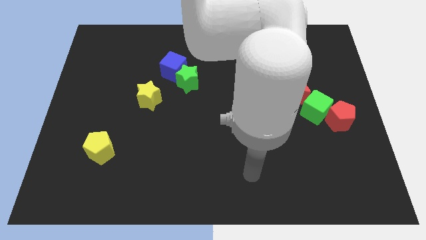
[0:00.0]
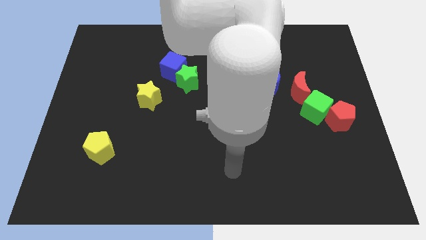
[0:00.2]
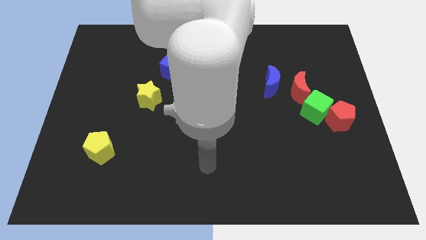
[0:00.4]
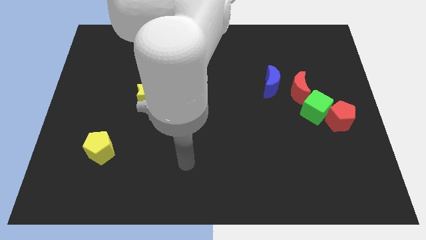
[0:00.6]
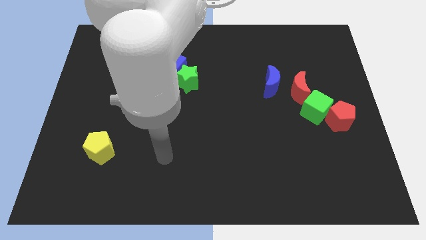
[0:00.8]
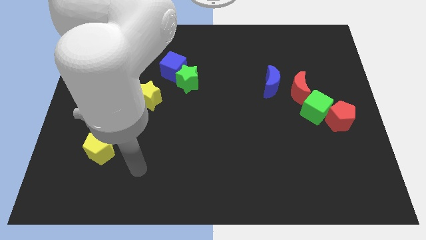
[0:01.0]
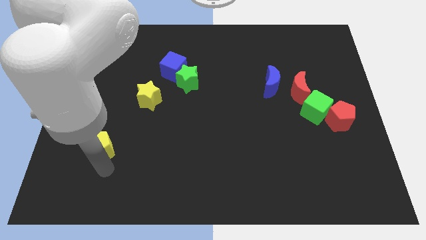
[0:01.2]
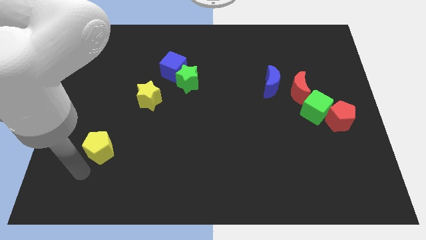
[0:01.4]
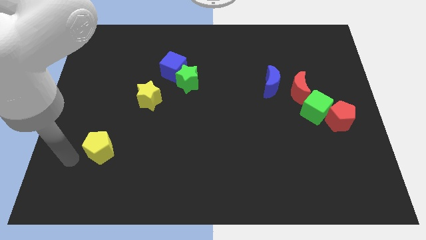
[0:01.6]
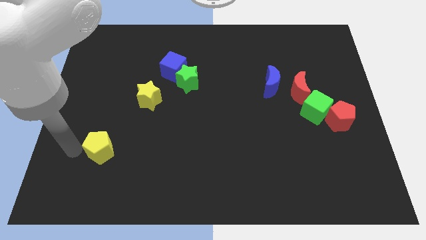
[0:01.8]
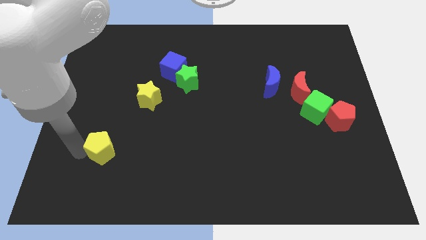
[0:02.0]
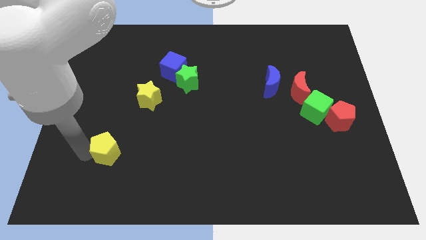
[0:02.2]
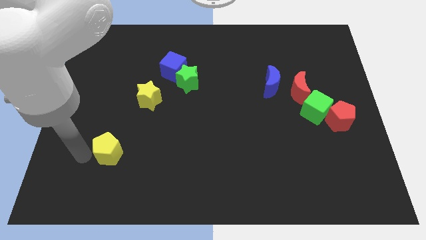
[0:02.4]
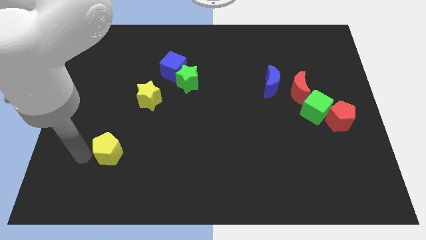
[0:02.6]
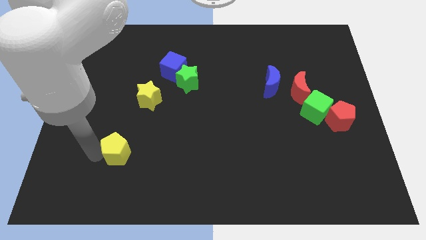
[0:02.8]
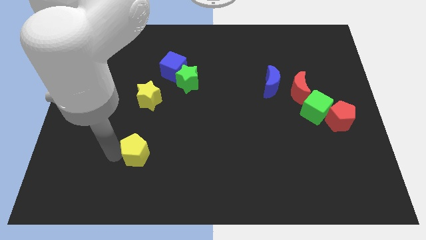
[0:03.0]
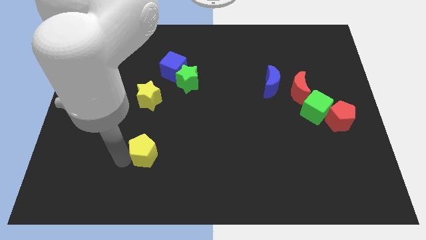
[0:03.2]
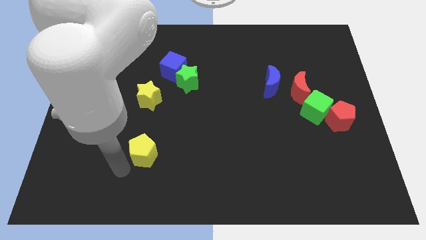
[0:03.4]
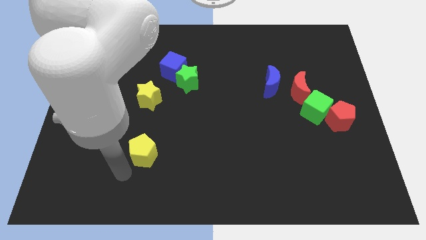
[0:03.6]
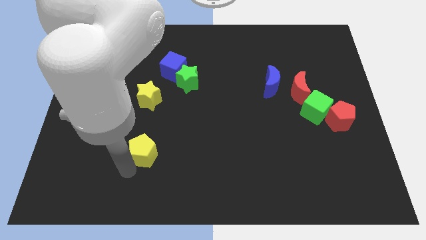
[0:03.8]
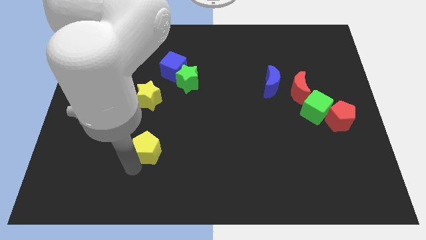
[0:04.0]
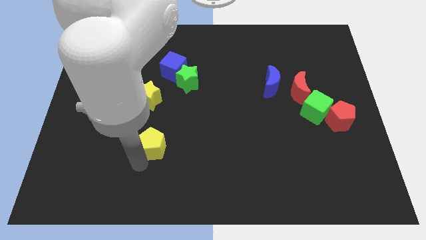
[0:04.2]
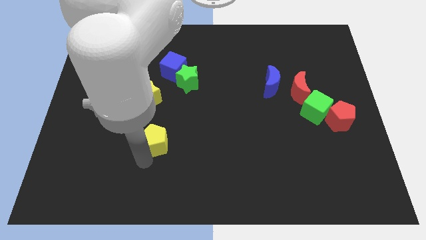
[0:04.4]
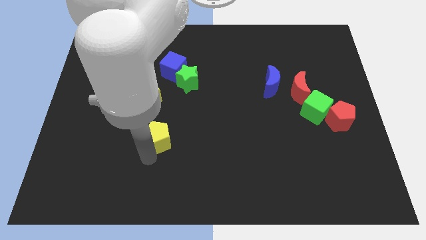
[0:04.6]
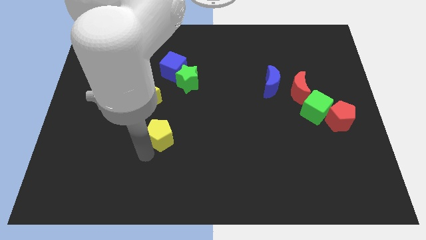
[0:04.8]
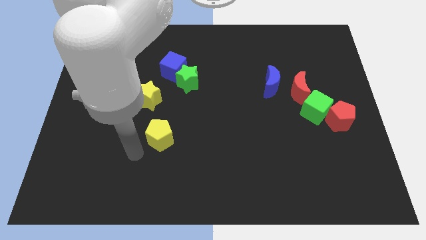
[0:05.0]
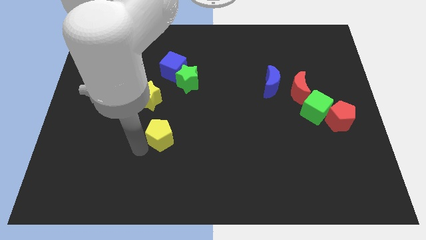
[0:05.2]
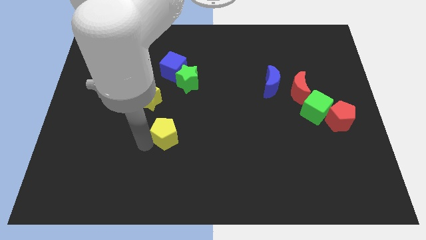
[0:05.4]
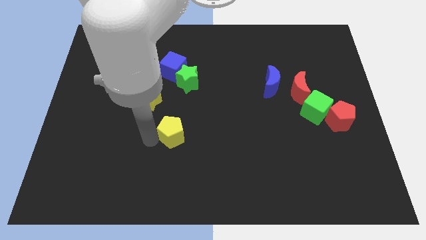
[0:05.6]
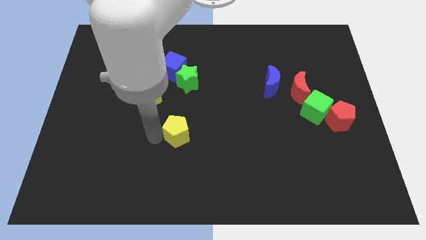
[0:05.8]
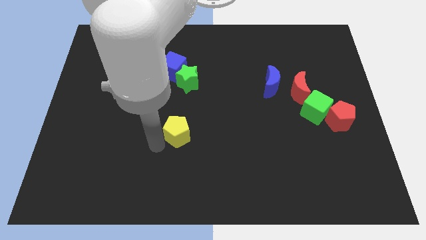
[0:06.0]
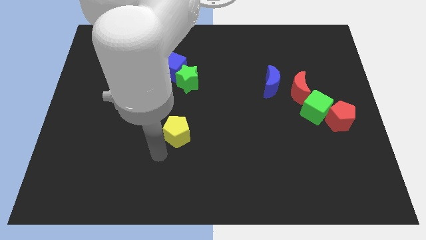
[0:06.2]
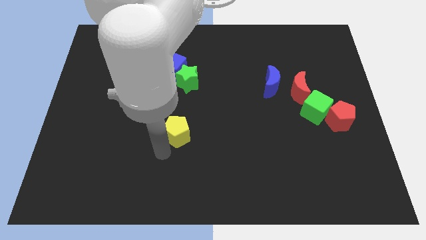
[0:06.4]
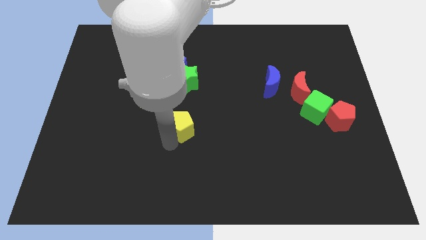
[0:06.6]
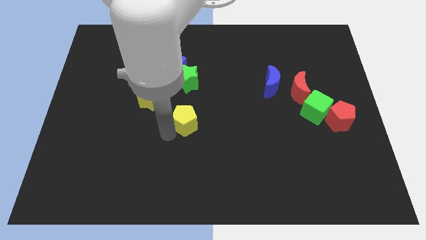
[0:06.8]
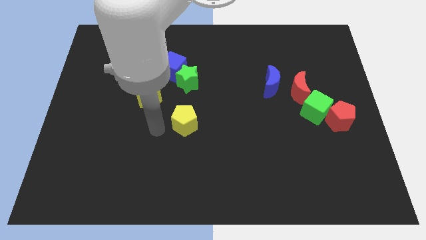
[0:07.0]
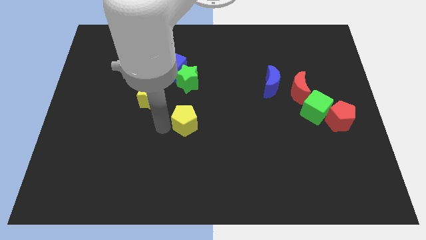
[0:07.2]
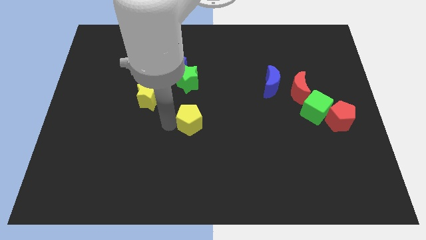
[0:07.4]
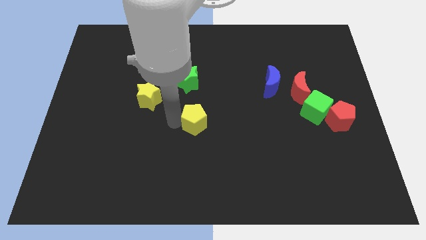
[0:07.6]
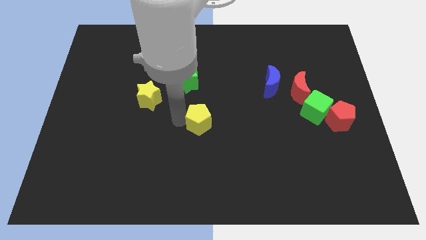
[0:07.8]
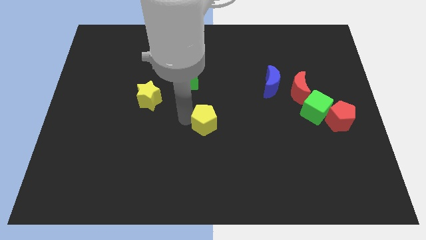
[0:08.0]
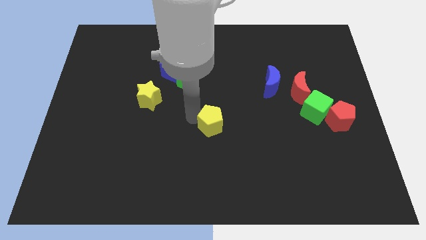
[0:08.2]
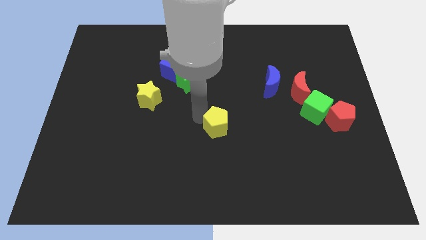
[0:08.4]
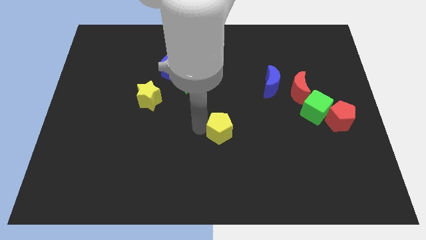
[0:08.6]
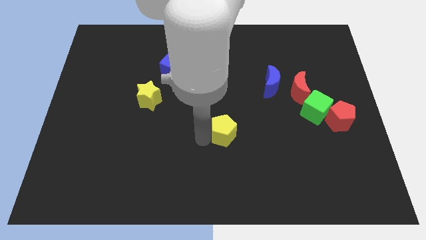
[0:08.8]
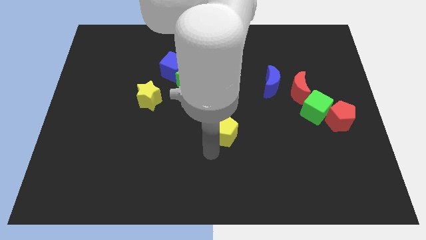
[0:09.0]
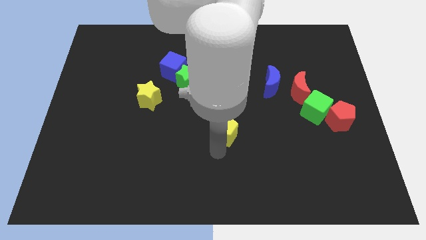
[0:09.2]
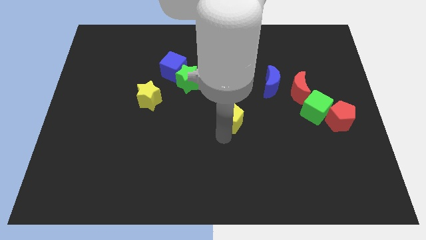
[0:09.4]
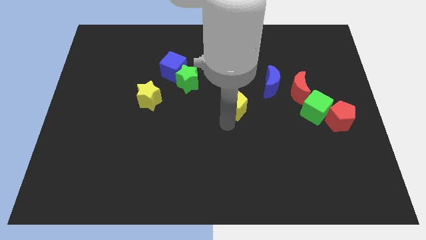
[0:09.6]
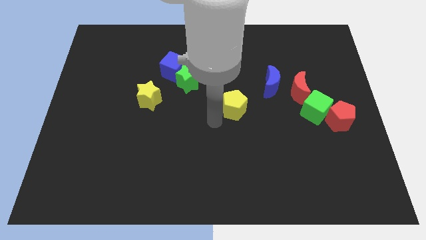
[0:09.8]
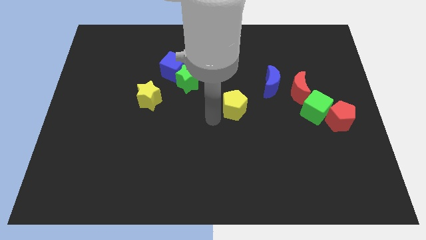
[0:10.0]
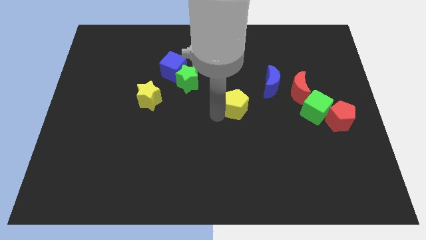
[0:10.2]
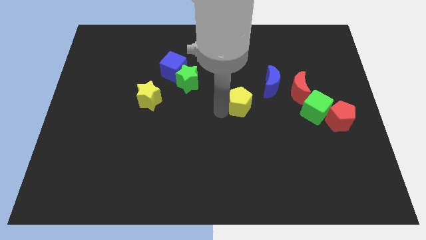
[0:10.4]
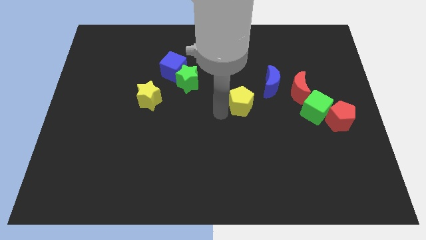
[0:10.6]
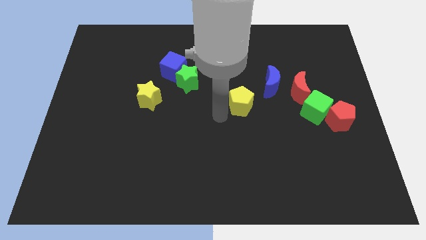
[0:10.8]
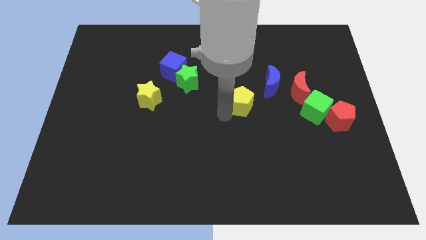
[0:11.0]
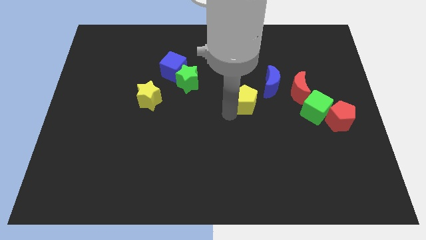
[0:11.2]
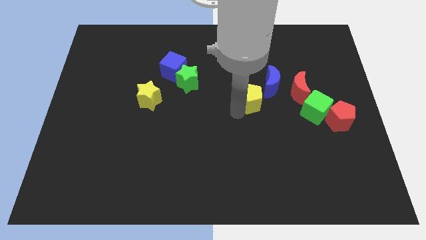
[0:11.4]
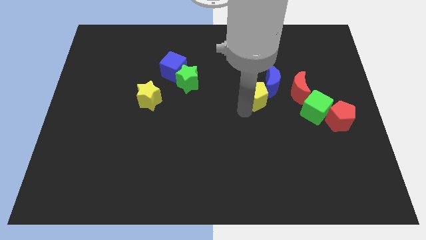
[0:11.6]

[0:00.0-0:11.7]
slide the yellow pentagon towards the blue moon

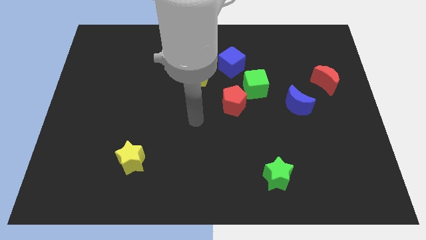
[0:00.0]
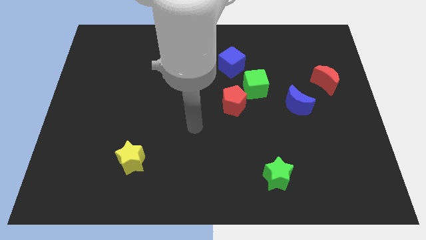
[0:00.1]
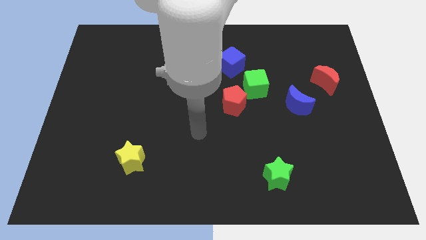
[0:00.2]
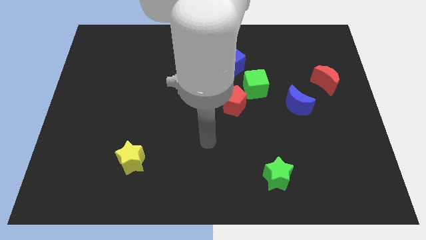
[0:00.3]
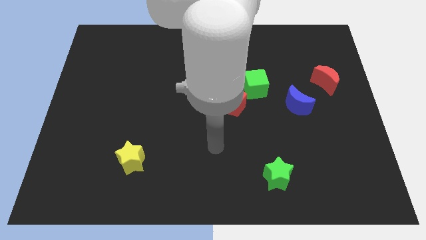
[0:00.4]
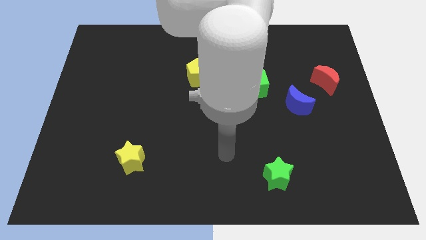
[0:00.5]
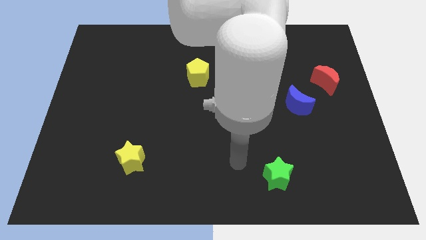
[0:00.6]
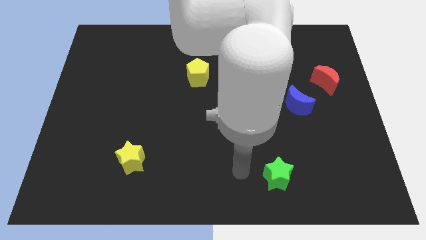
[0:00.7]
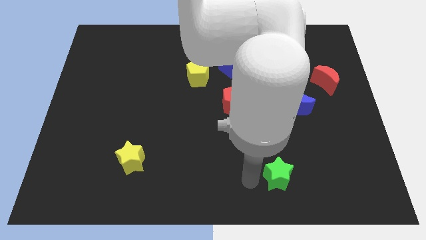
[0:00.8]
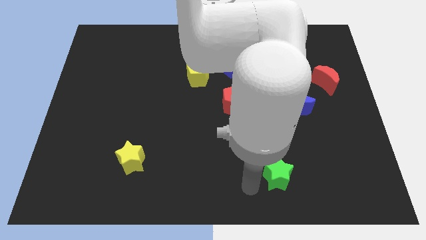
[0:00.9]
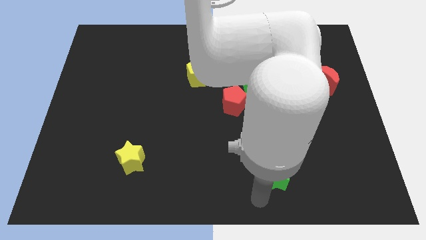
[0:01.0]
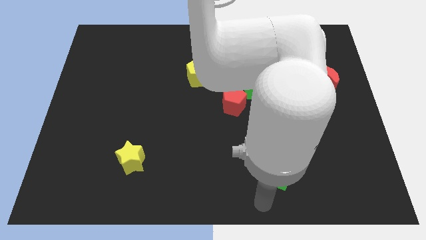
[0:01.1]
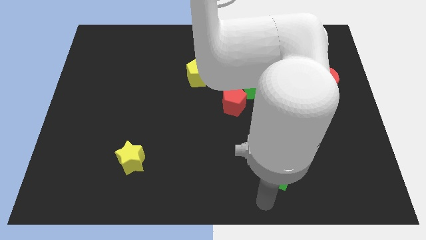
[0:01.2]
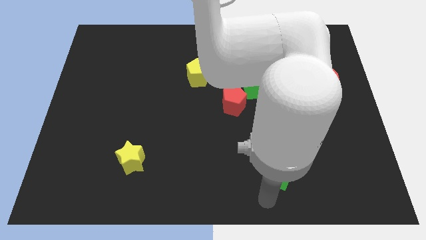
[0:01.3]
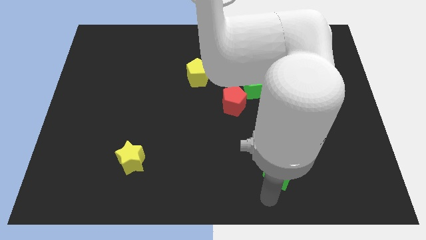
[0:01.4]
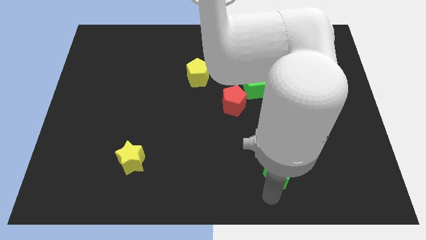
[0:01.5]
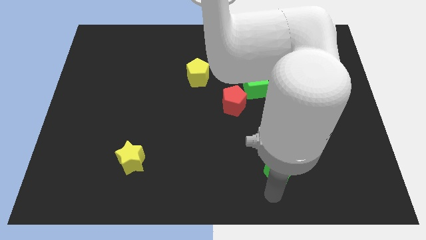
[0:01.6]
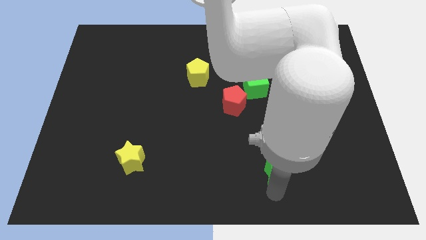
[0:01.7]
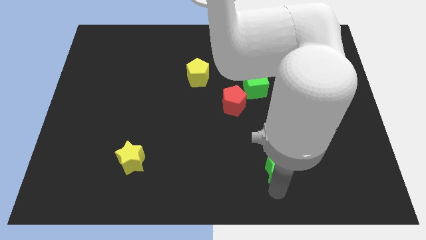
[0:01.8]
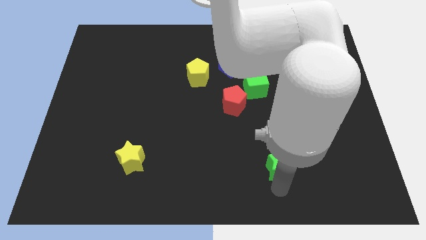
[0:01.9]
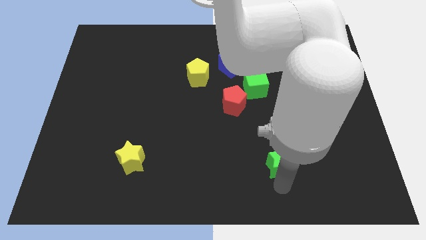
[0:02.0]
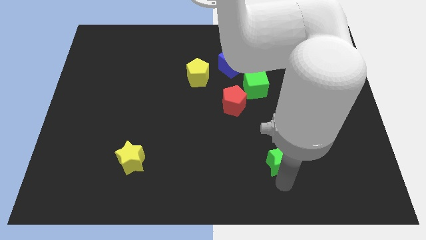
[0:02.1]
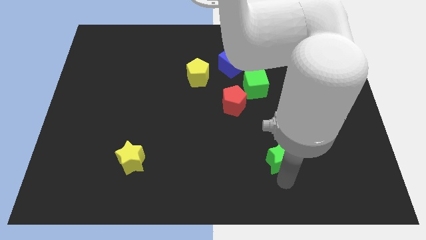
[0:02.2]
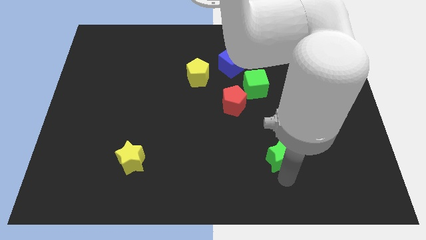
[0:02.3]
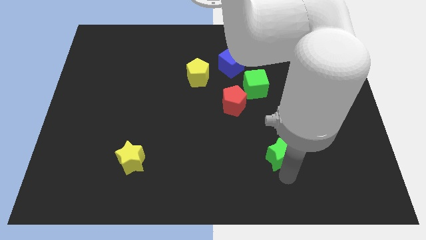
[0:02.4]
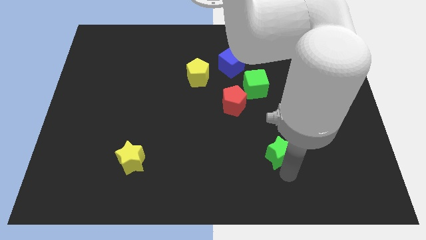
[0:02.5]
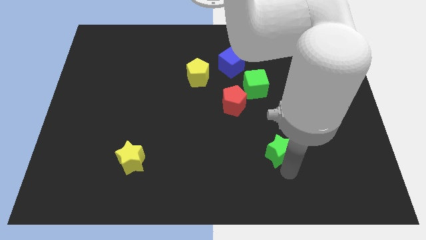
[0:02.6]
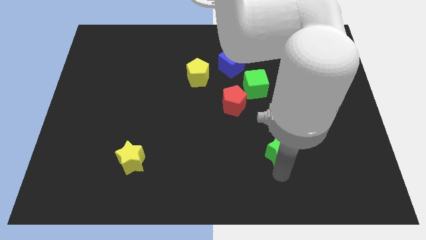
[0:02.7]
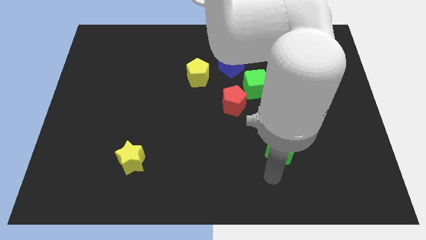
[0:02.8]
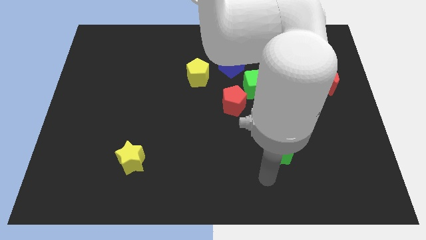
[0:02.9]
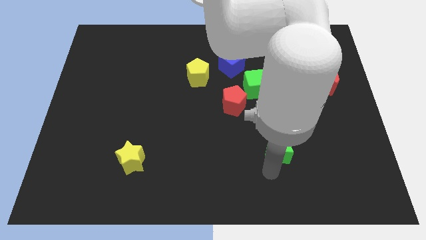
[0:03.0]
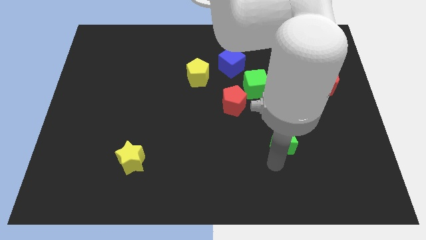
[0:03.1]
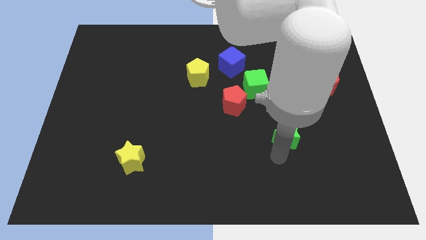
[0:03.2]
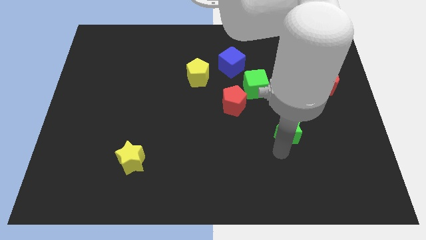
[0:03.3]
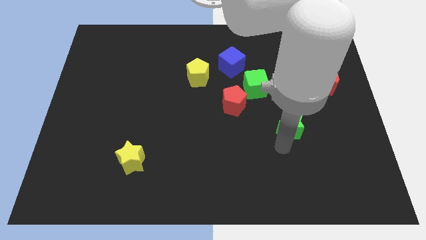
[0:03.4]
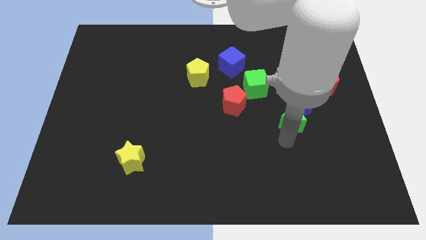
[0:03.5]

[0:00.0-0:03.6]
slide the green star to the blue moon
